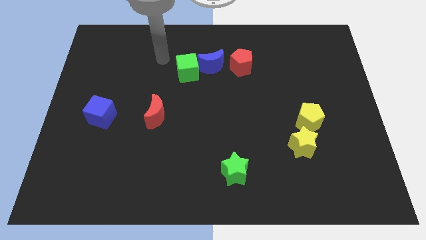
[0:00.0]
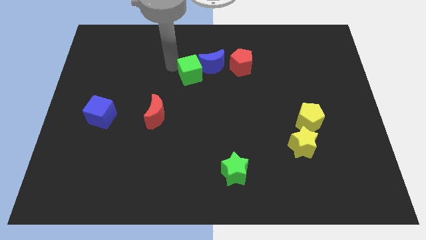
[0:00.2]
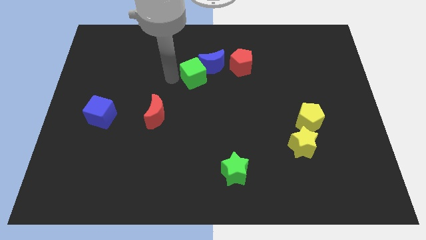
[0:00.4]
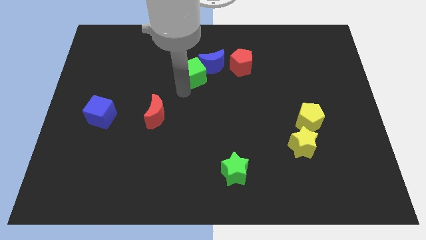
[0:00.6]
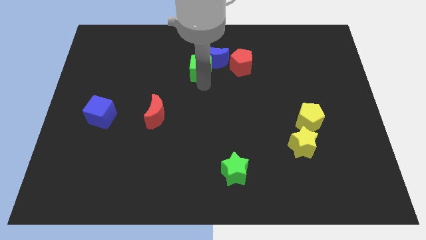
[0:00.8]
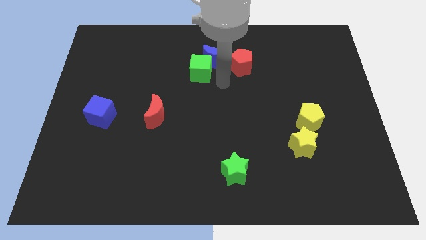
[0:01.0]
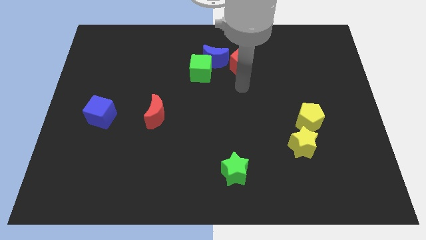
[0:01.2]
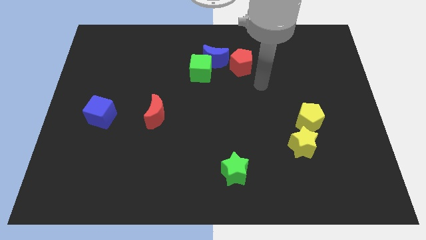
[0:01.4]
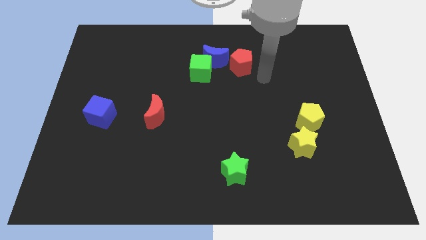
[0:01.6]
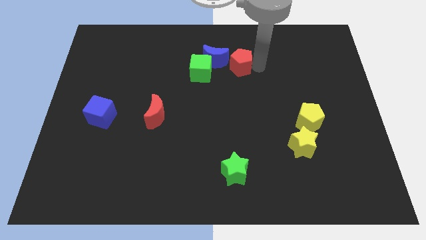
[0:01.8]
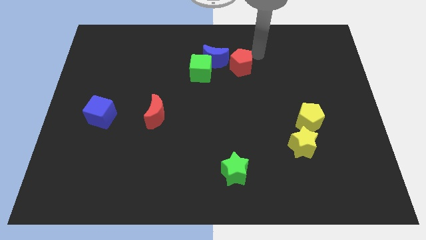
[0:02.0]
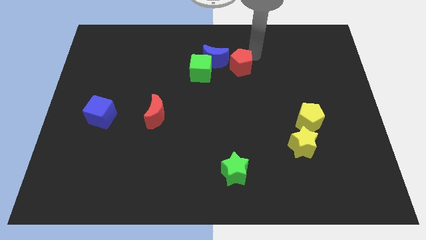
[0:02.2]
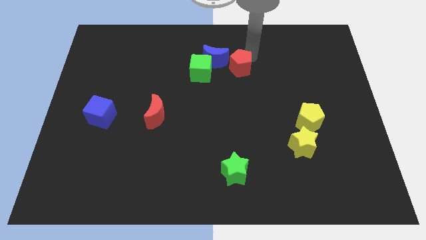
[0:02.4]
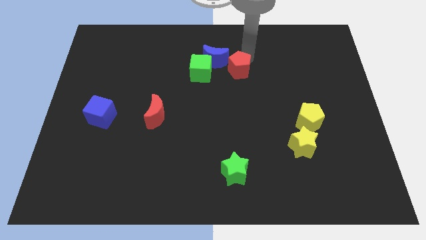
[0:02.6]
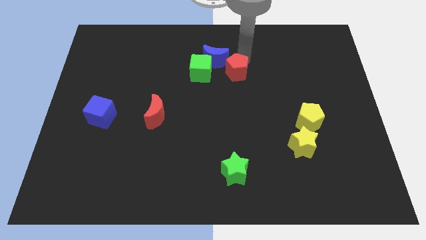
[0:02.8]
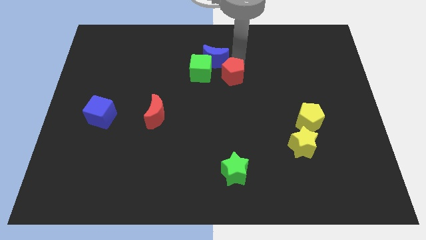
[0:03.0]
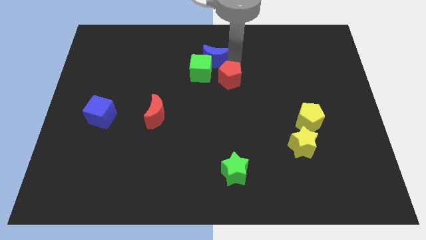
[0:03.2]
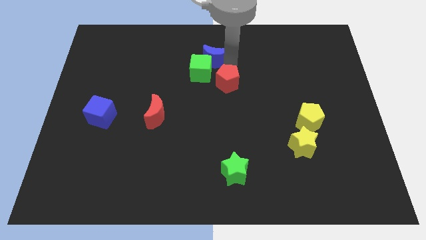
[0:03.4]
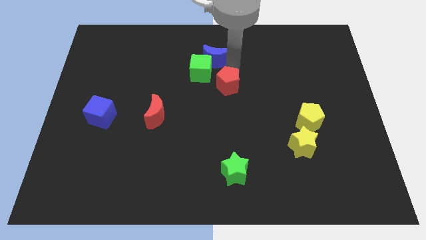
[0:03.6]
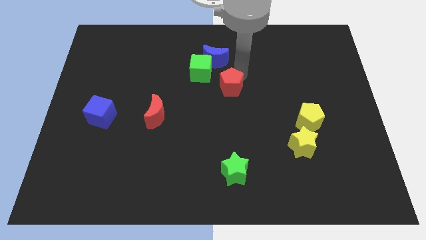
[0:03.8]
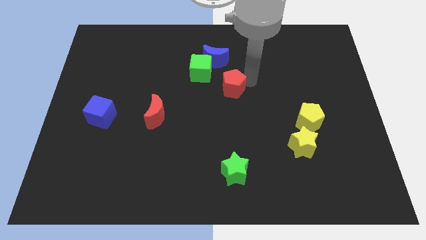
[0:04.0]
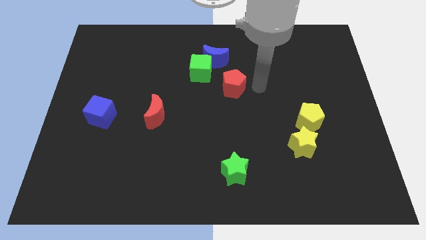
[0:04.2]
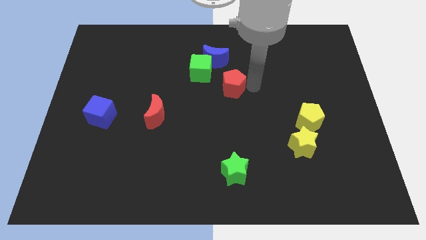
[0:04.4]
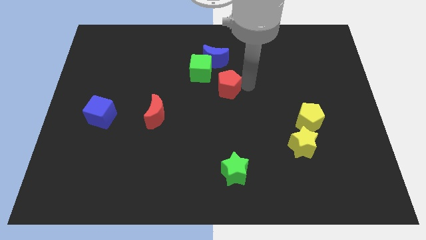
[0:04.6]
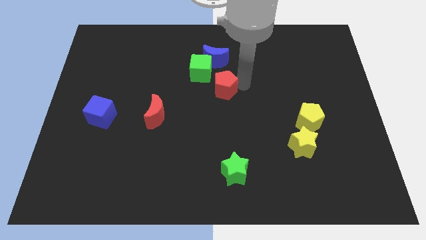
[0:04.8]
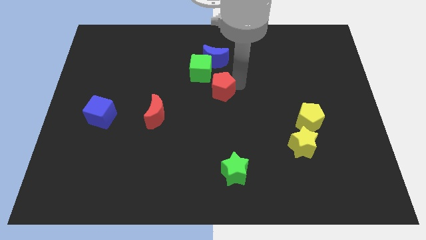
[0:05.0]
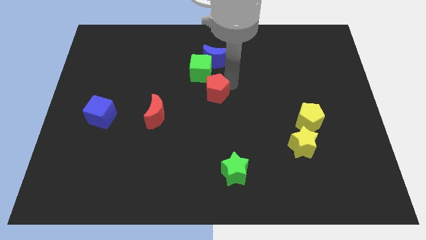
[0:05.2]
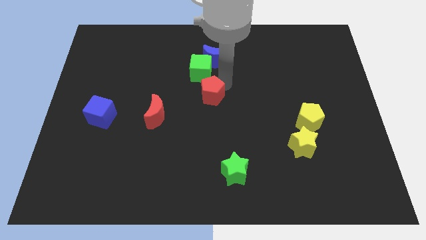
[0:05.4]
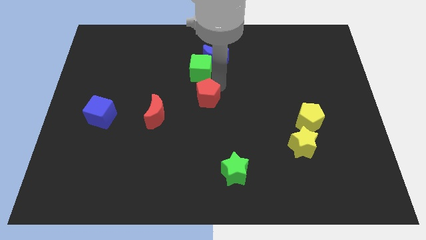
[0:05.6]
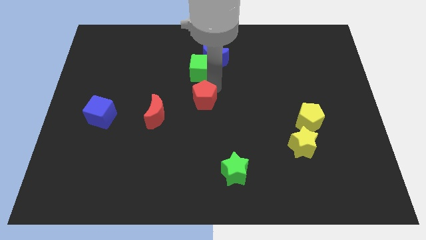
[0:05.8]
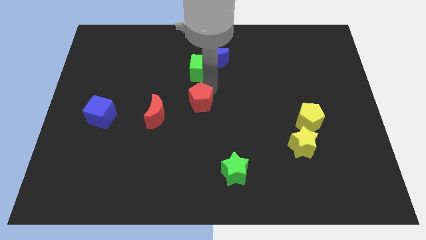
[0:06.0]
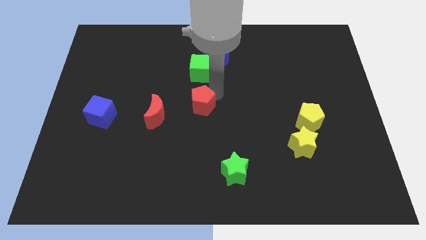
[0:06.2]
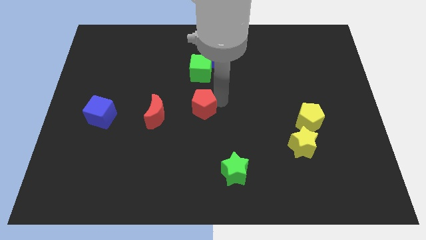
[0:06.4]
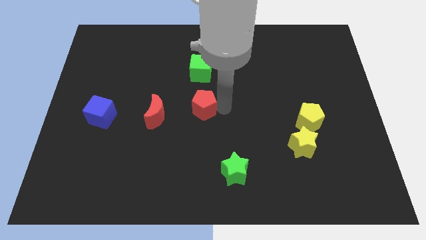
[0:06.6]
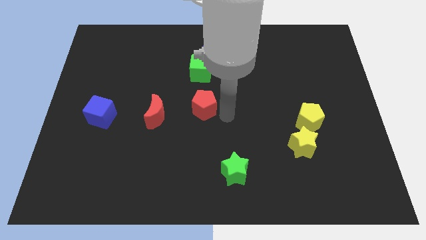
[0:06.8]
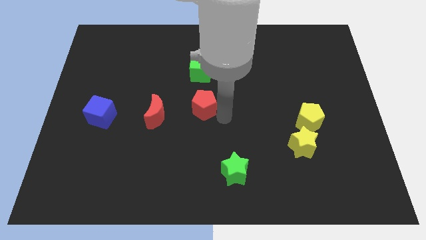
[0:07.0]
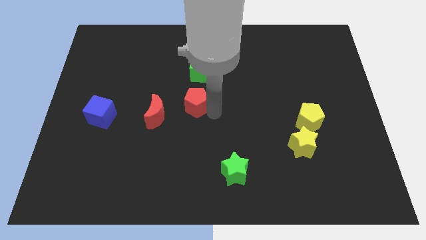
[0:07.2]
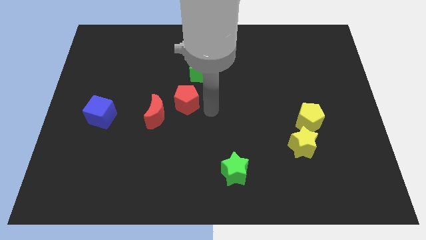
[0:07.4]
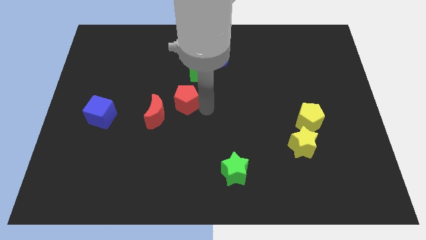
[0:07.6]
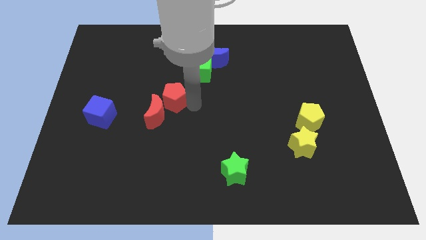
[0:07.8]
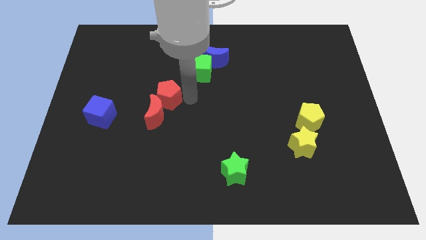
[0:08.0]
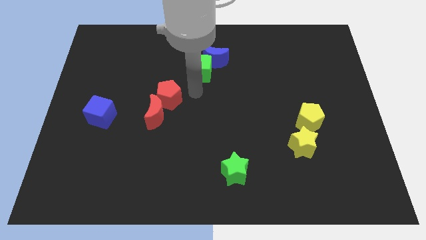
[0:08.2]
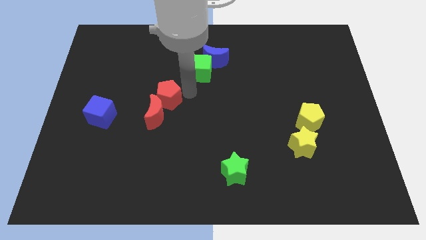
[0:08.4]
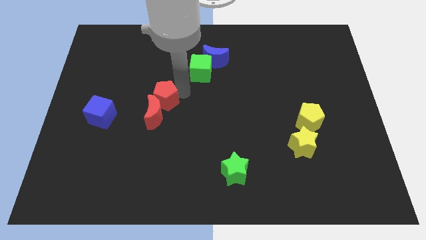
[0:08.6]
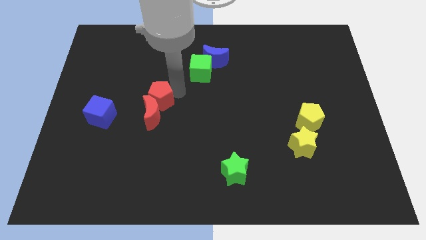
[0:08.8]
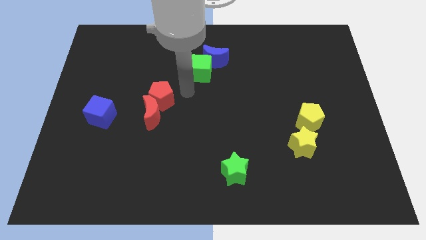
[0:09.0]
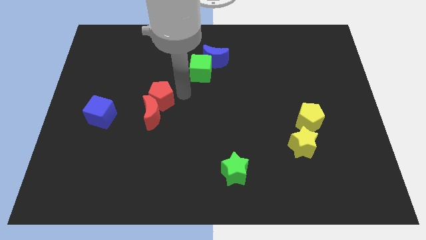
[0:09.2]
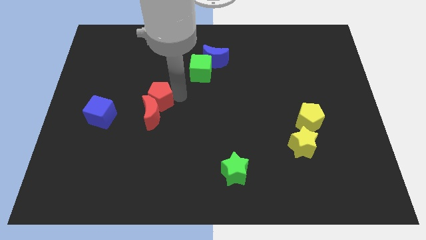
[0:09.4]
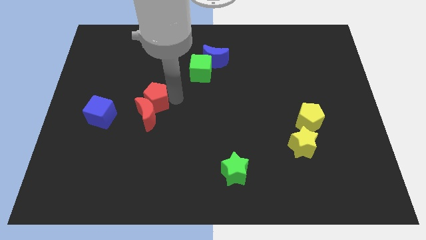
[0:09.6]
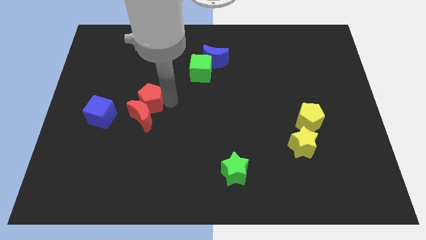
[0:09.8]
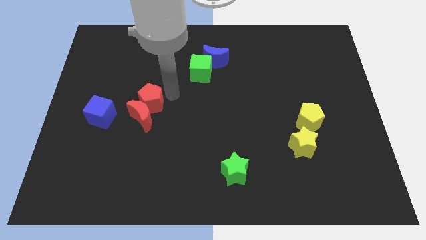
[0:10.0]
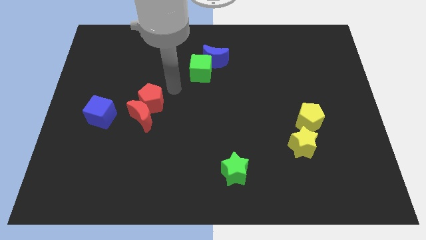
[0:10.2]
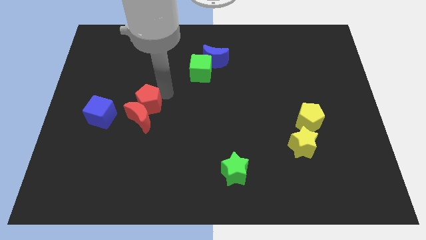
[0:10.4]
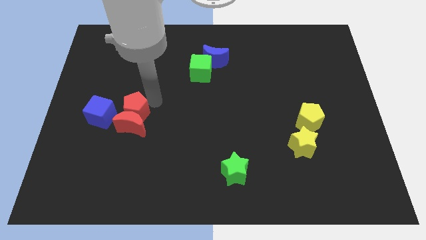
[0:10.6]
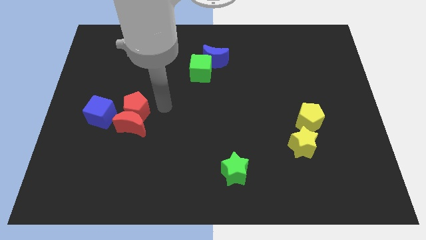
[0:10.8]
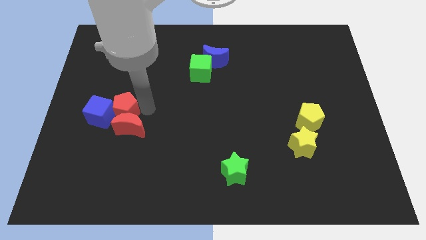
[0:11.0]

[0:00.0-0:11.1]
move the red pentagon towards the blue cube

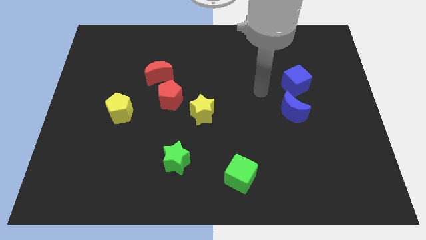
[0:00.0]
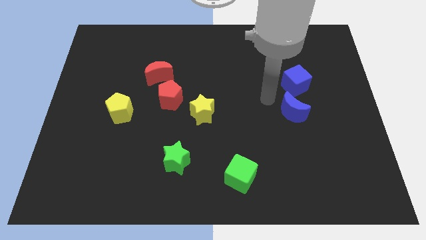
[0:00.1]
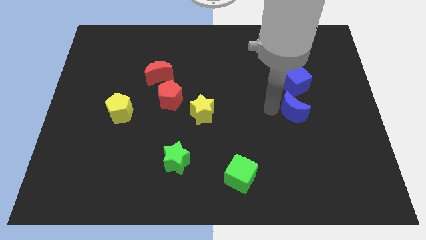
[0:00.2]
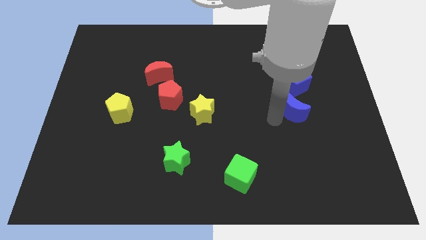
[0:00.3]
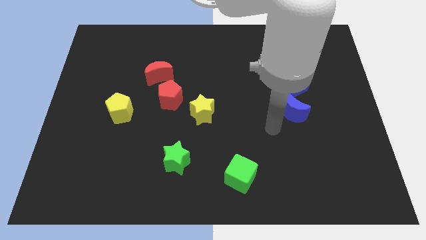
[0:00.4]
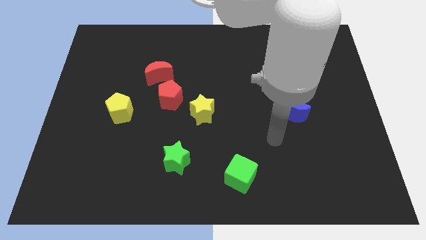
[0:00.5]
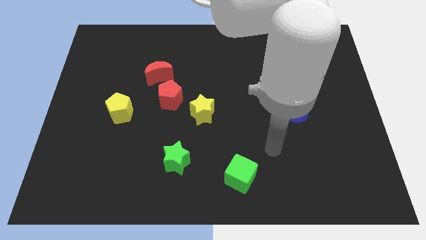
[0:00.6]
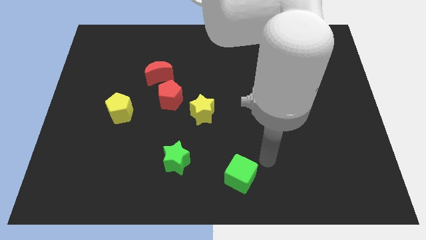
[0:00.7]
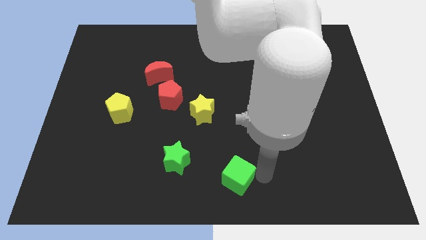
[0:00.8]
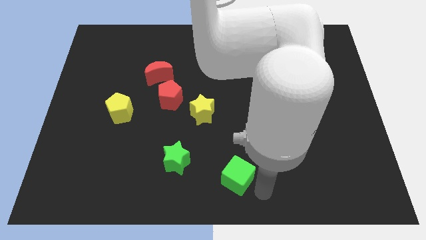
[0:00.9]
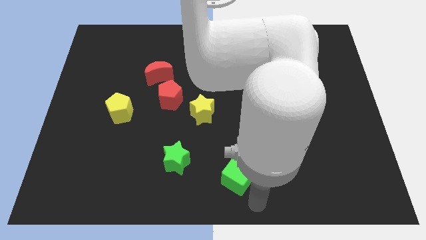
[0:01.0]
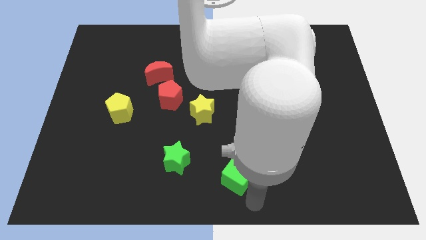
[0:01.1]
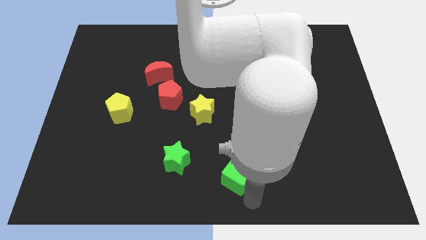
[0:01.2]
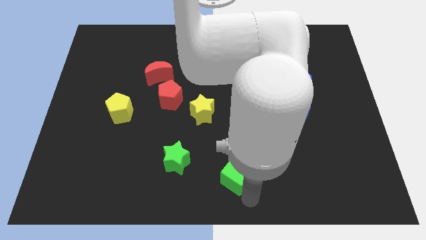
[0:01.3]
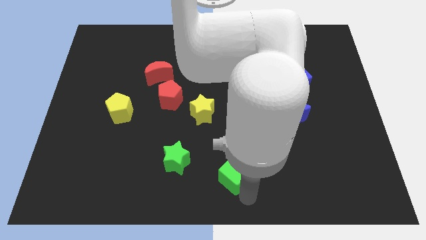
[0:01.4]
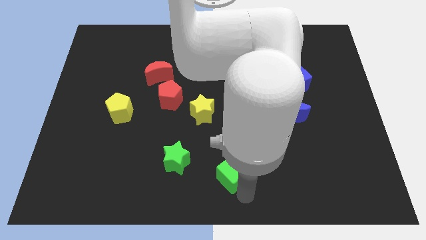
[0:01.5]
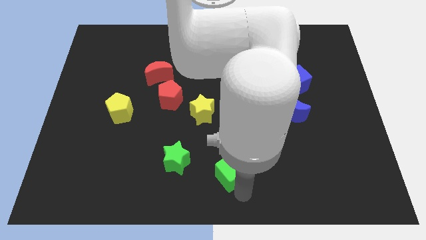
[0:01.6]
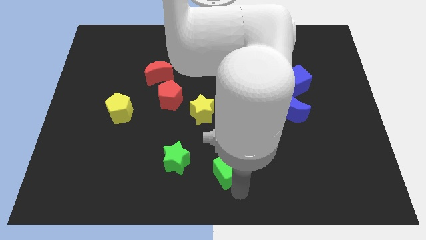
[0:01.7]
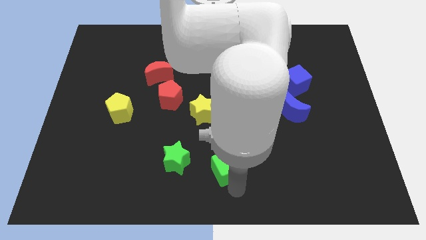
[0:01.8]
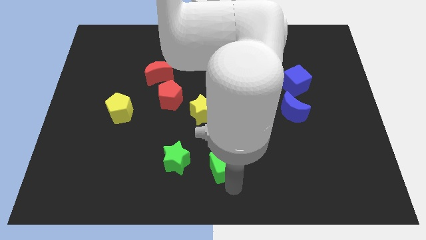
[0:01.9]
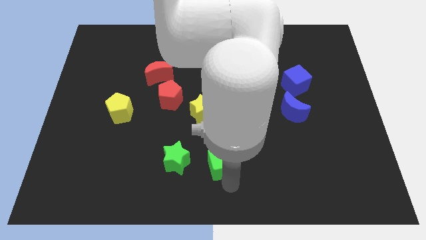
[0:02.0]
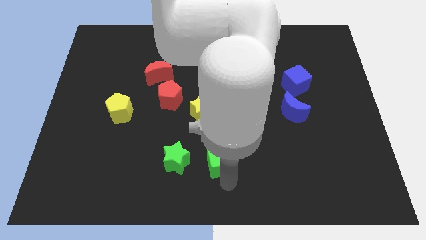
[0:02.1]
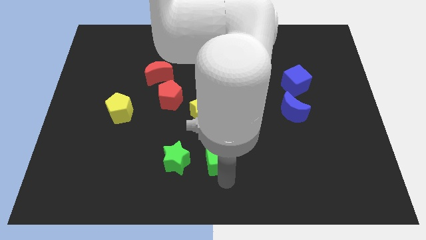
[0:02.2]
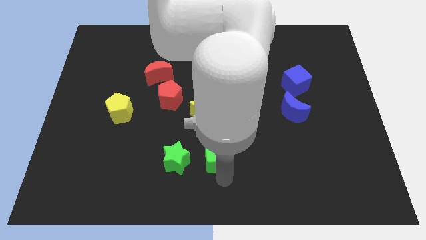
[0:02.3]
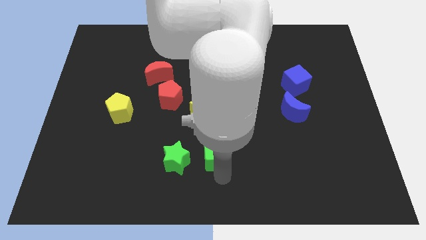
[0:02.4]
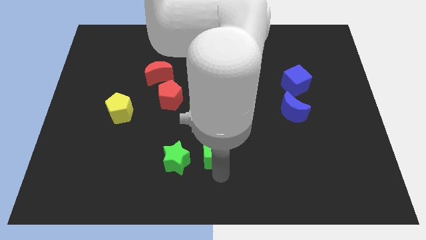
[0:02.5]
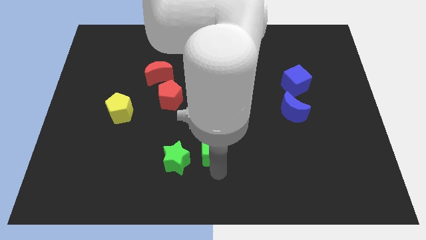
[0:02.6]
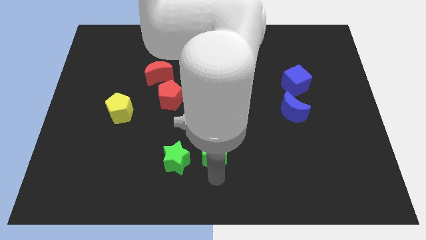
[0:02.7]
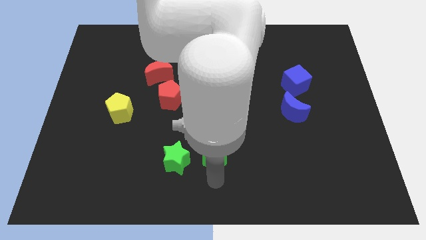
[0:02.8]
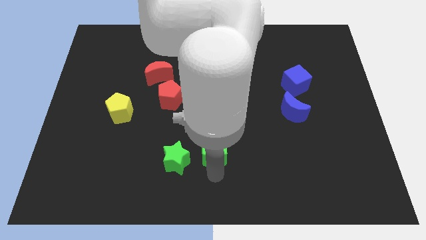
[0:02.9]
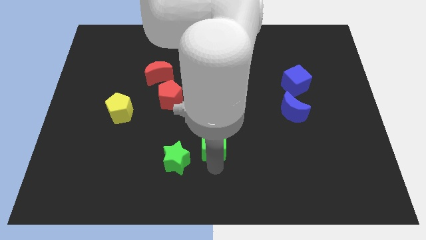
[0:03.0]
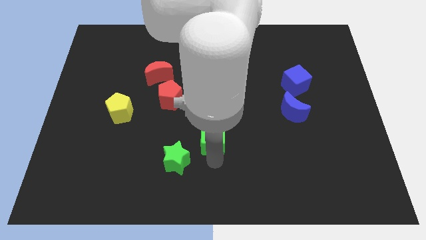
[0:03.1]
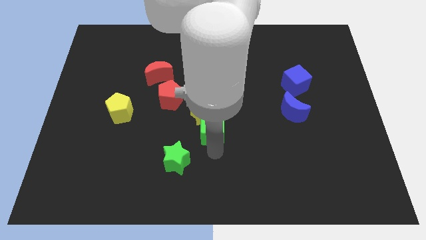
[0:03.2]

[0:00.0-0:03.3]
put the green cube close to the yellow star
